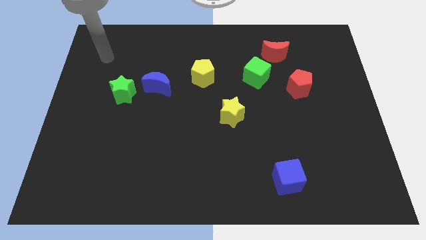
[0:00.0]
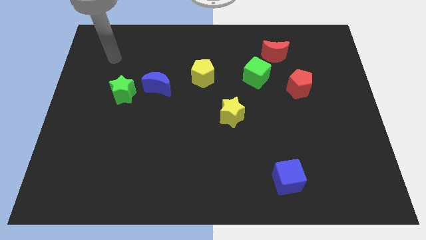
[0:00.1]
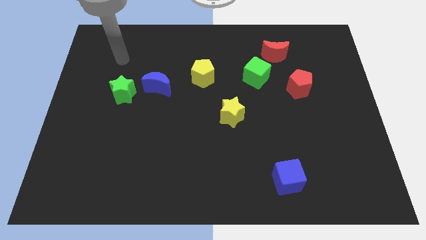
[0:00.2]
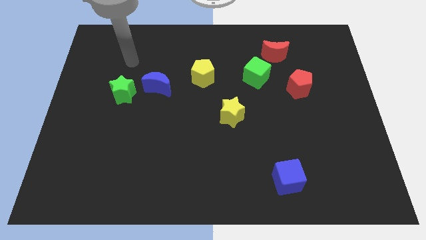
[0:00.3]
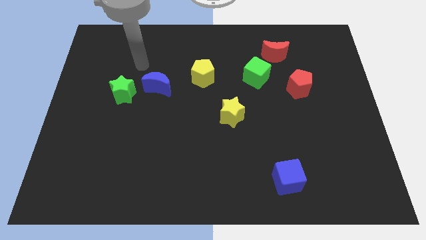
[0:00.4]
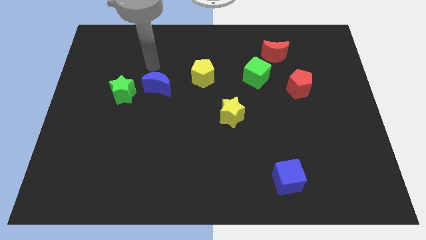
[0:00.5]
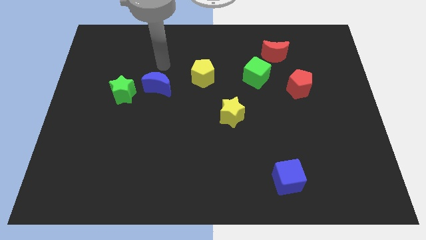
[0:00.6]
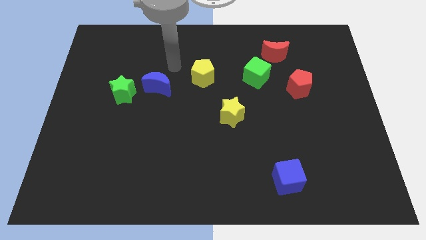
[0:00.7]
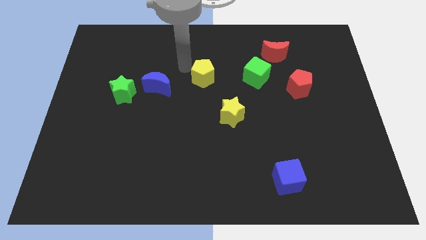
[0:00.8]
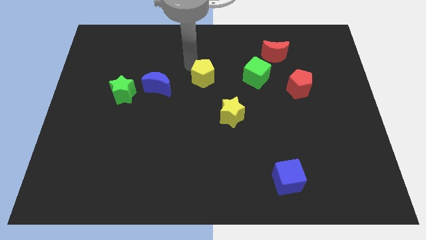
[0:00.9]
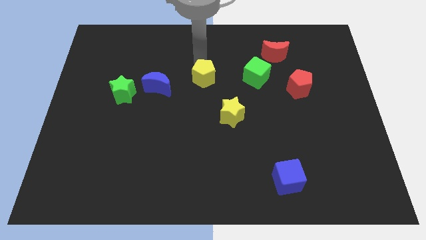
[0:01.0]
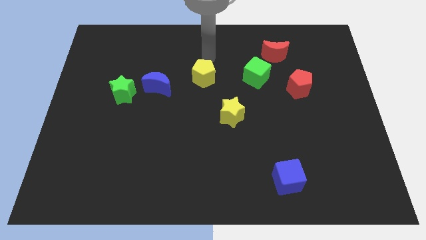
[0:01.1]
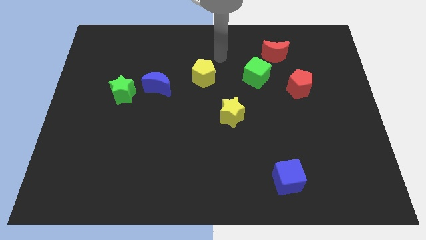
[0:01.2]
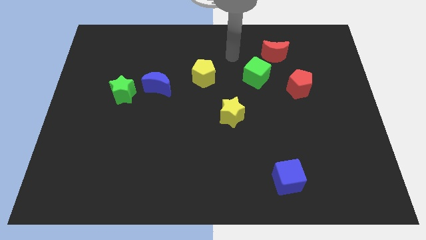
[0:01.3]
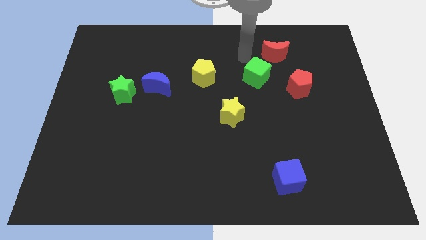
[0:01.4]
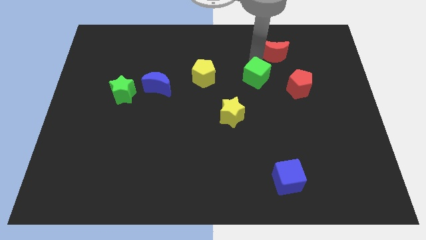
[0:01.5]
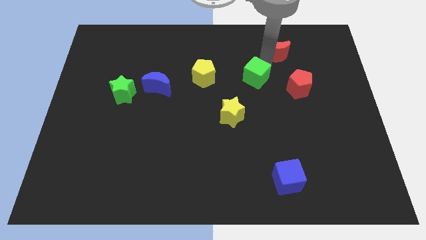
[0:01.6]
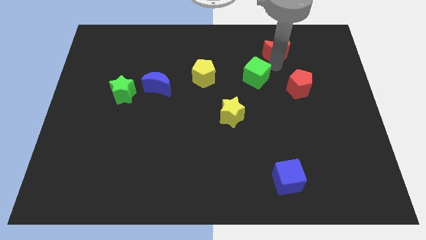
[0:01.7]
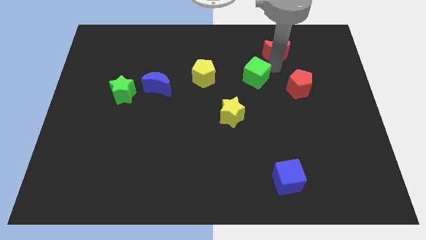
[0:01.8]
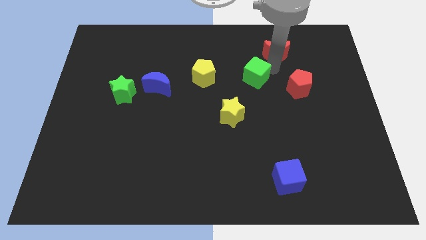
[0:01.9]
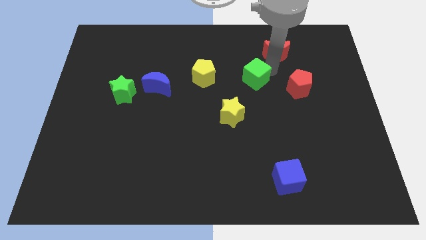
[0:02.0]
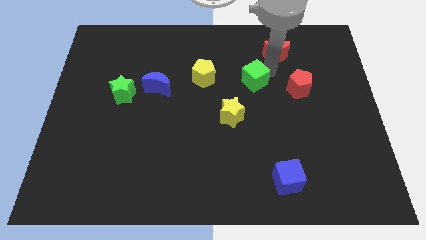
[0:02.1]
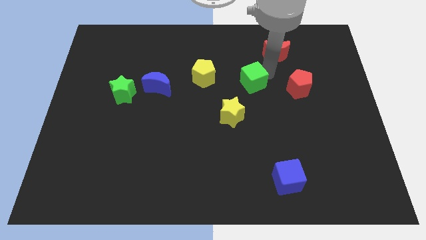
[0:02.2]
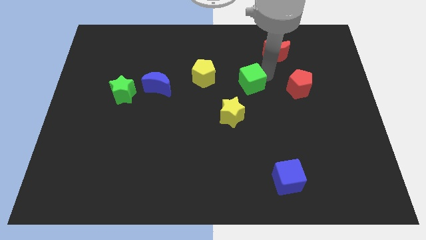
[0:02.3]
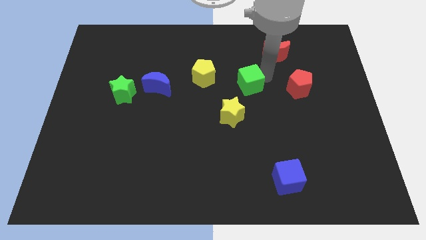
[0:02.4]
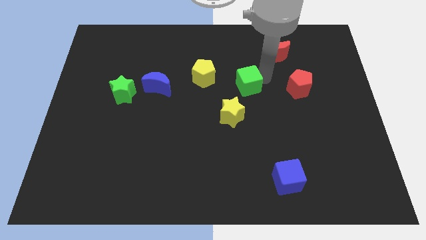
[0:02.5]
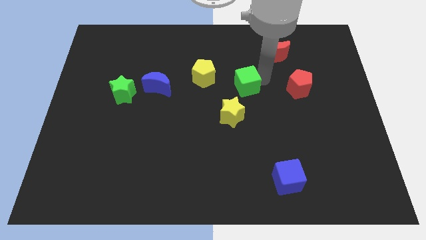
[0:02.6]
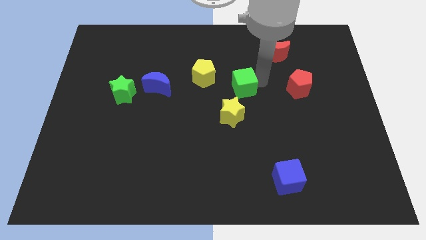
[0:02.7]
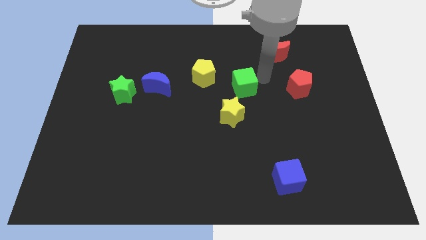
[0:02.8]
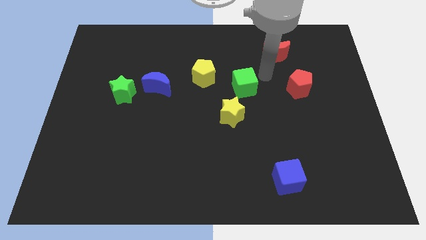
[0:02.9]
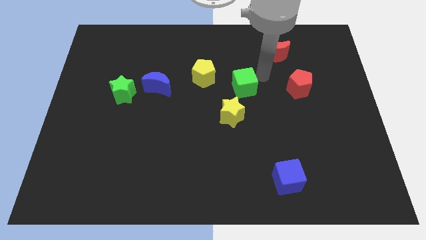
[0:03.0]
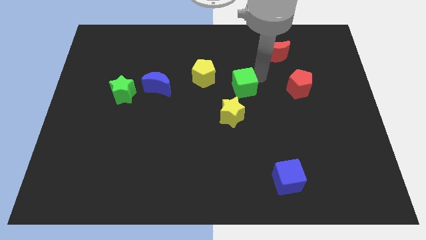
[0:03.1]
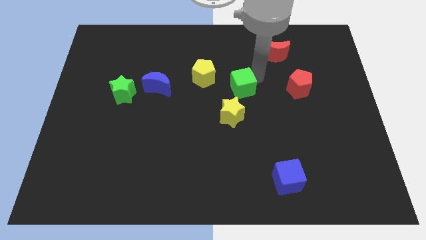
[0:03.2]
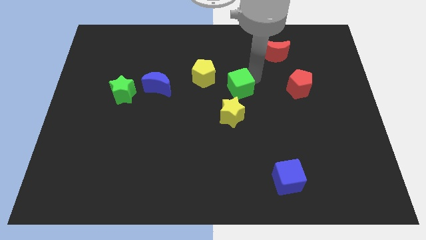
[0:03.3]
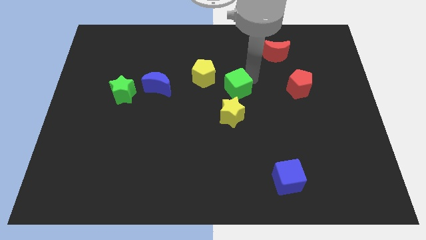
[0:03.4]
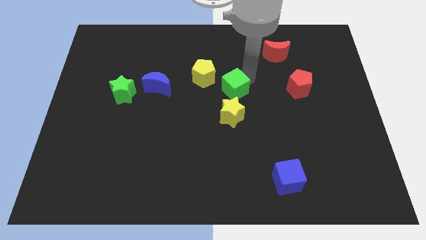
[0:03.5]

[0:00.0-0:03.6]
move the green cube a little bit down and left diagonally

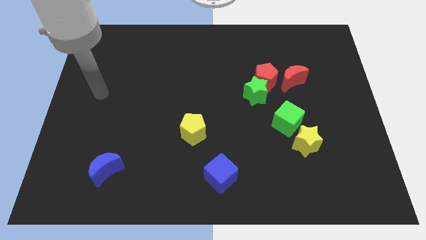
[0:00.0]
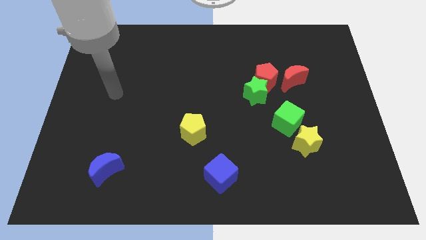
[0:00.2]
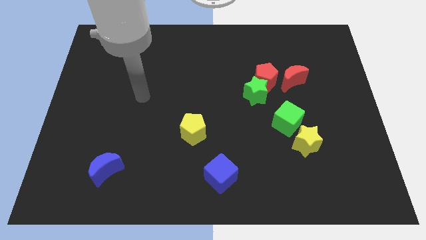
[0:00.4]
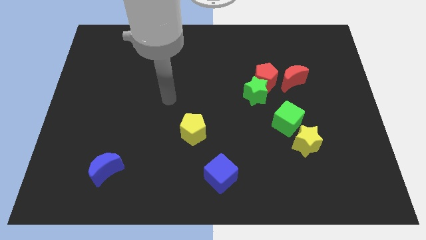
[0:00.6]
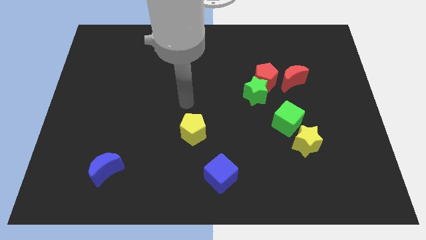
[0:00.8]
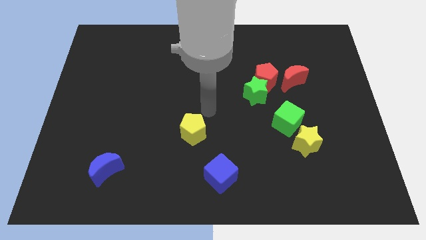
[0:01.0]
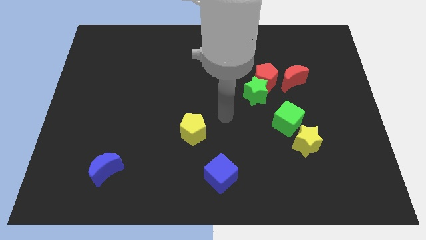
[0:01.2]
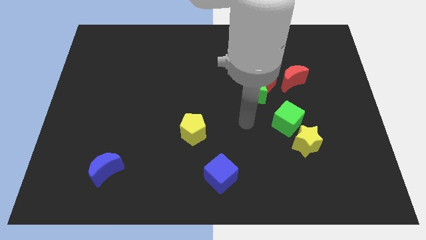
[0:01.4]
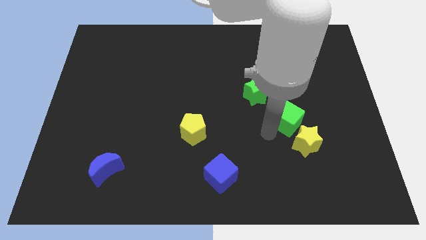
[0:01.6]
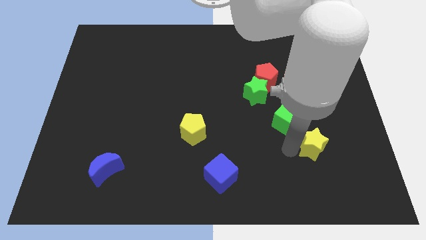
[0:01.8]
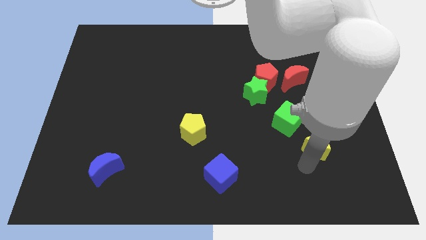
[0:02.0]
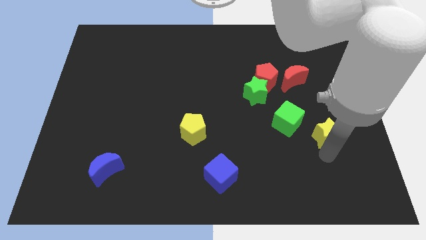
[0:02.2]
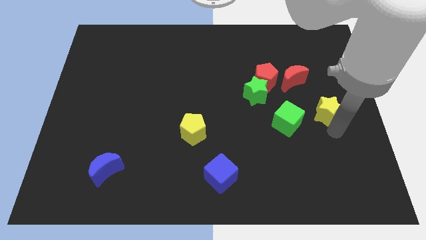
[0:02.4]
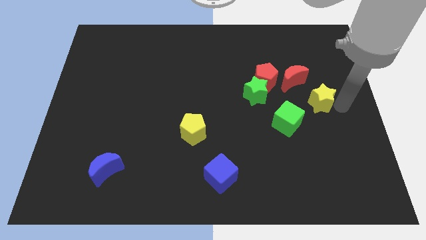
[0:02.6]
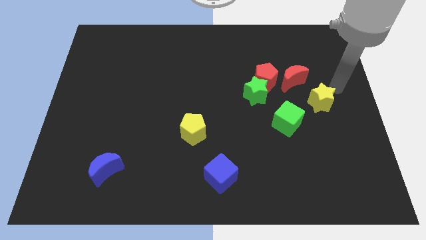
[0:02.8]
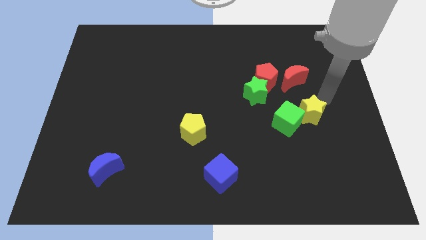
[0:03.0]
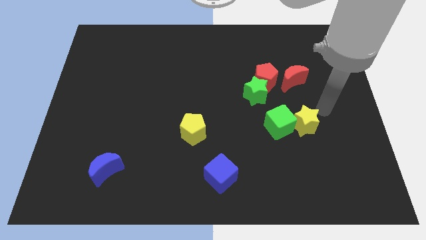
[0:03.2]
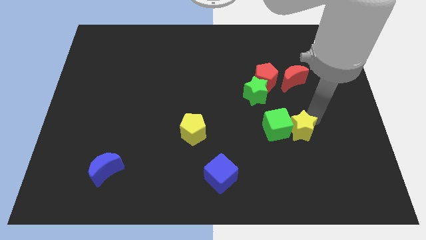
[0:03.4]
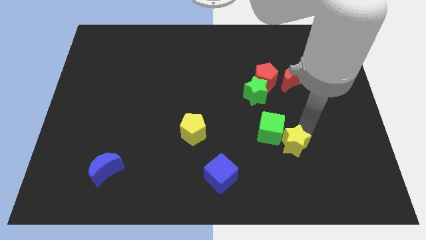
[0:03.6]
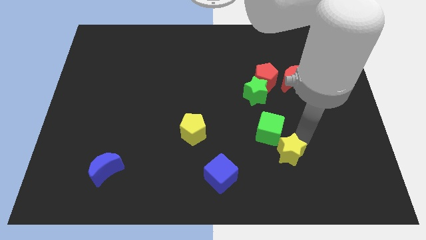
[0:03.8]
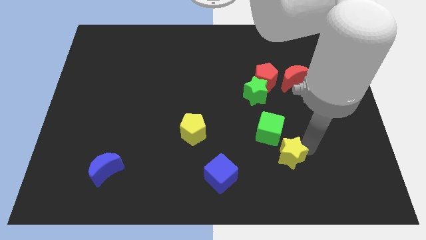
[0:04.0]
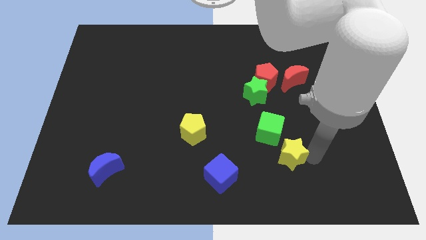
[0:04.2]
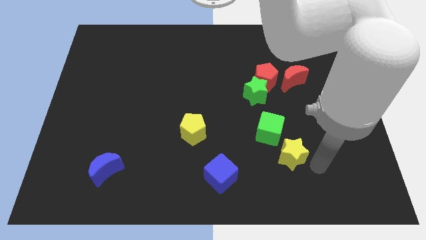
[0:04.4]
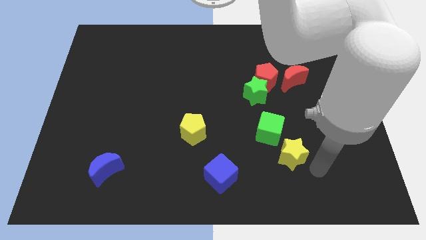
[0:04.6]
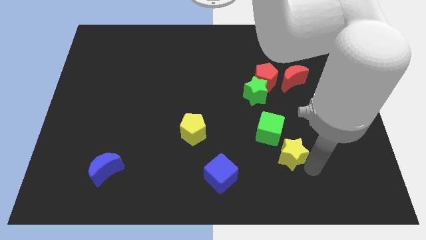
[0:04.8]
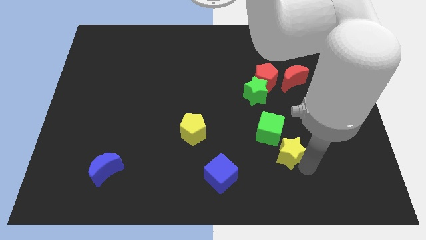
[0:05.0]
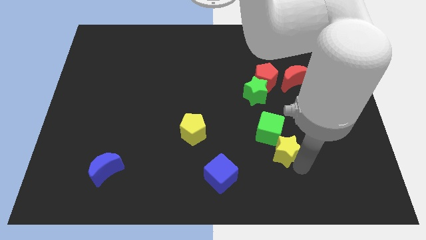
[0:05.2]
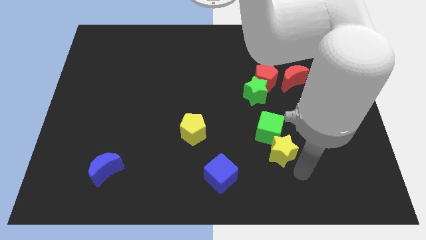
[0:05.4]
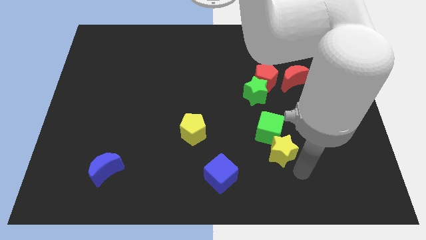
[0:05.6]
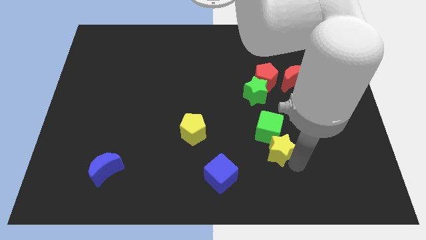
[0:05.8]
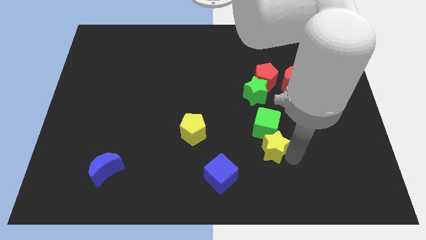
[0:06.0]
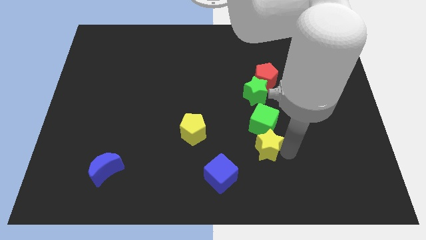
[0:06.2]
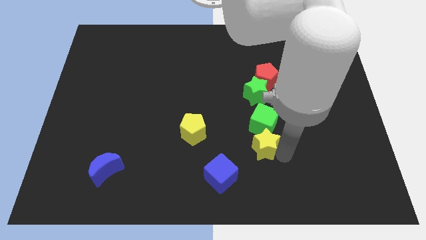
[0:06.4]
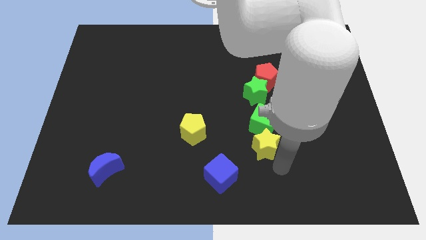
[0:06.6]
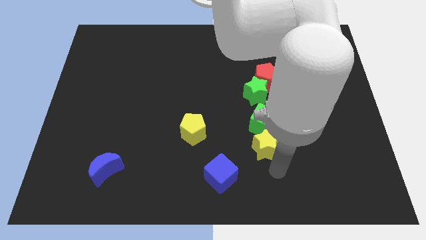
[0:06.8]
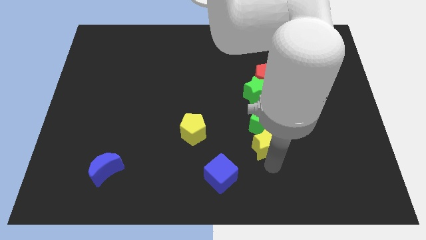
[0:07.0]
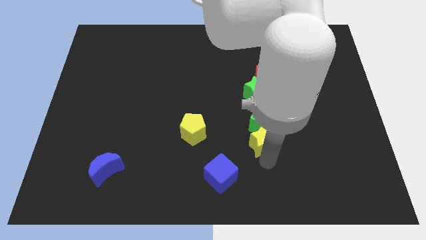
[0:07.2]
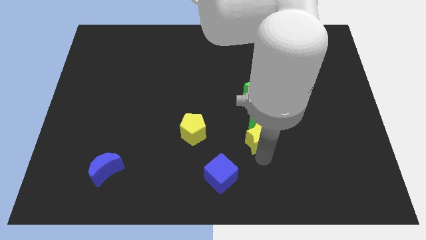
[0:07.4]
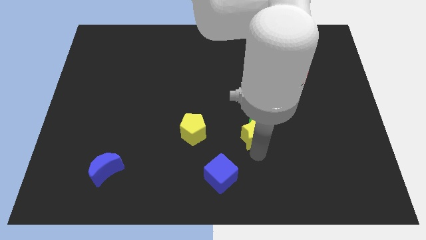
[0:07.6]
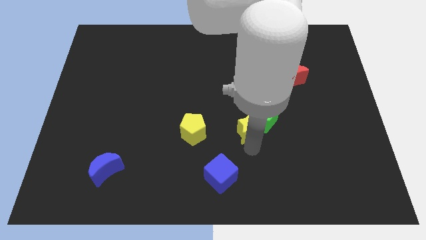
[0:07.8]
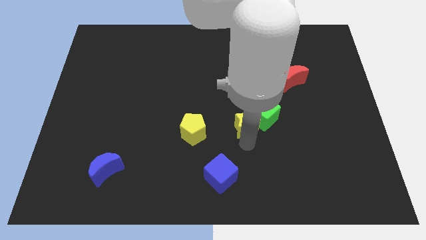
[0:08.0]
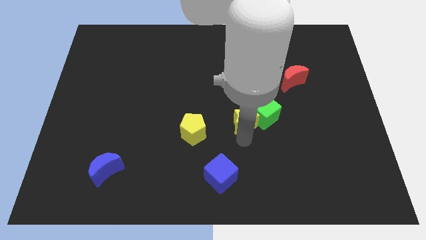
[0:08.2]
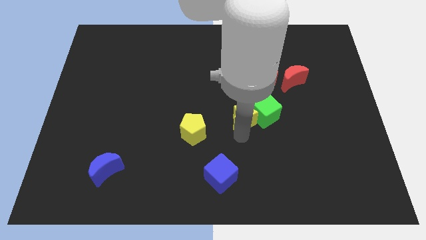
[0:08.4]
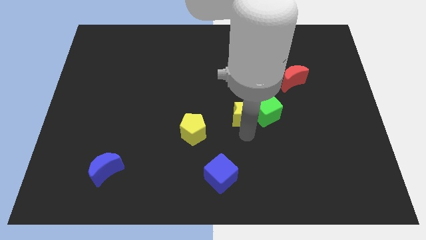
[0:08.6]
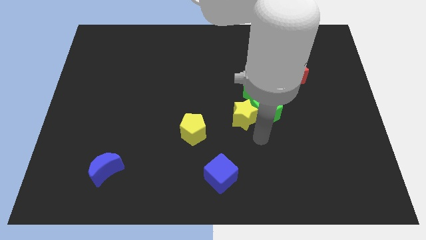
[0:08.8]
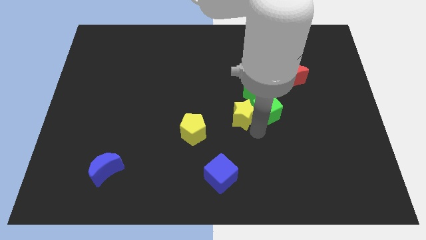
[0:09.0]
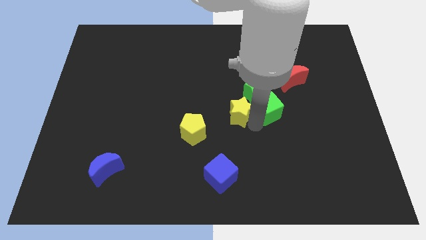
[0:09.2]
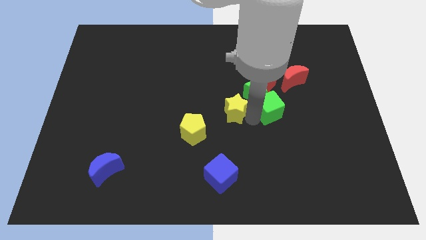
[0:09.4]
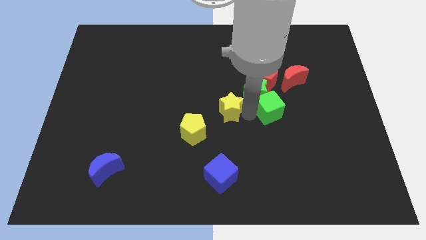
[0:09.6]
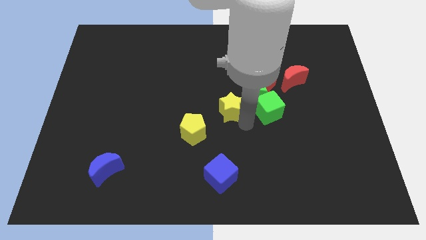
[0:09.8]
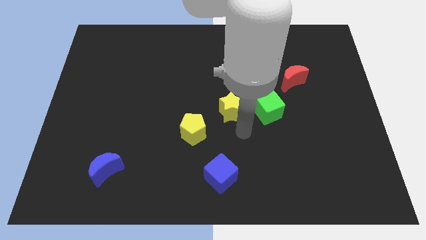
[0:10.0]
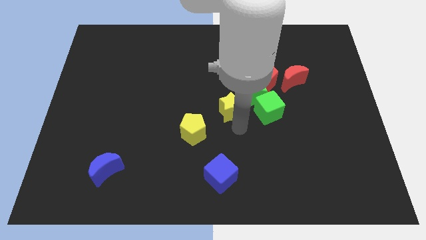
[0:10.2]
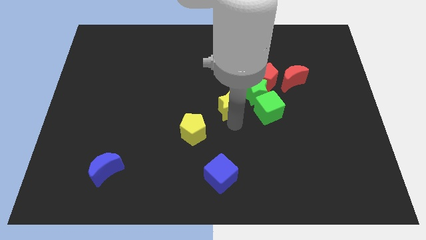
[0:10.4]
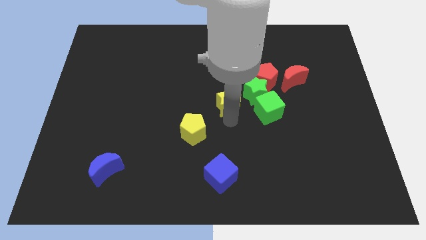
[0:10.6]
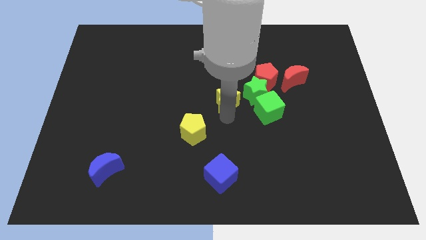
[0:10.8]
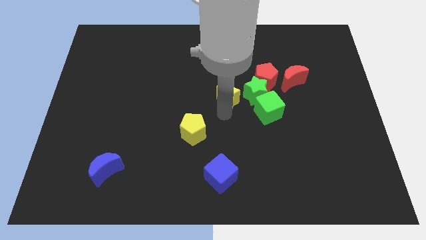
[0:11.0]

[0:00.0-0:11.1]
move the yellow star upwards and left diagonally
